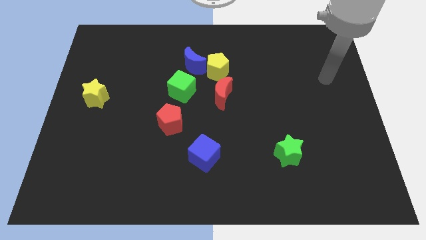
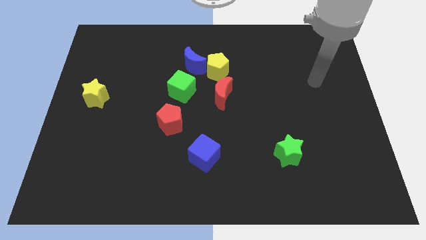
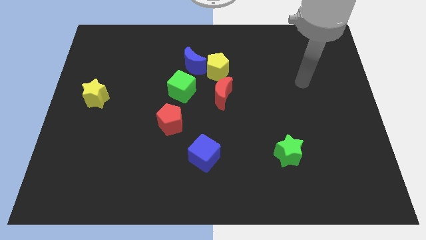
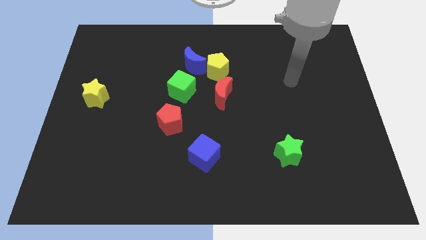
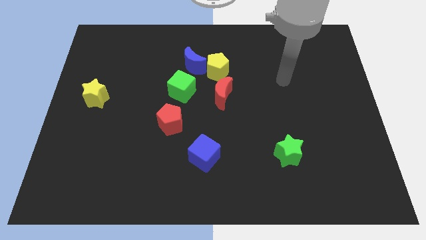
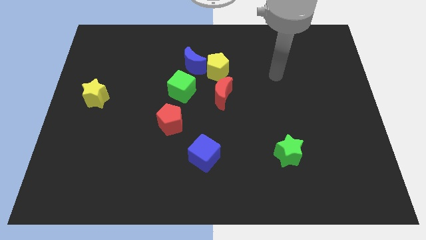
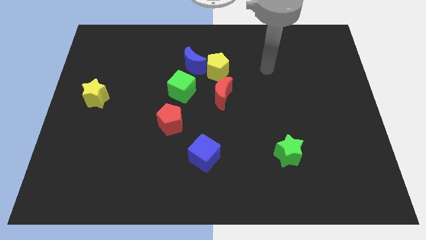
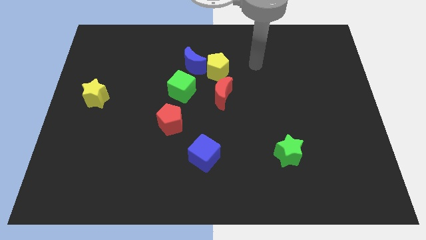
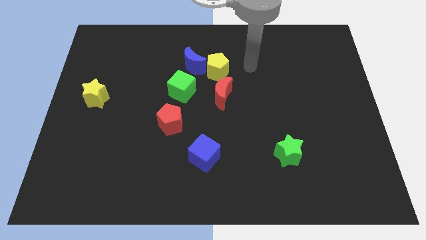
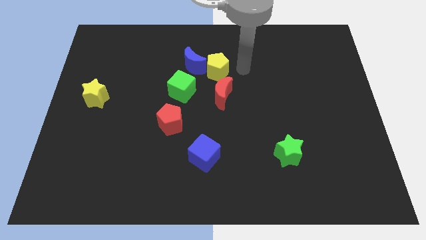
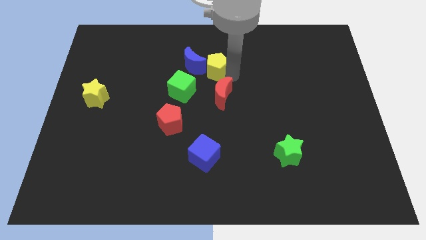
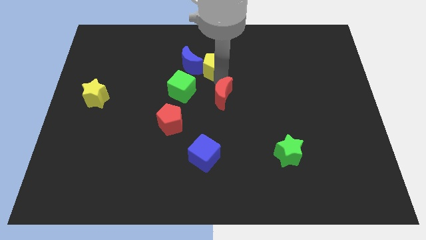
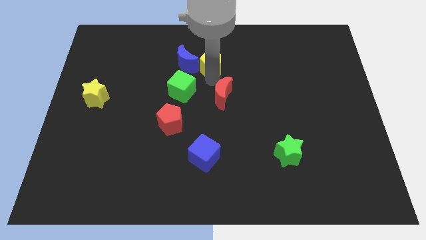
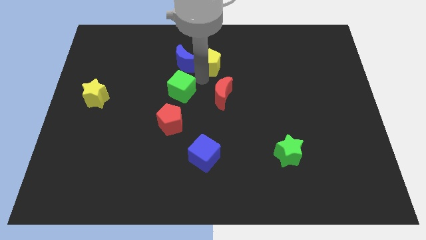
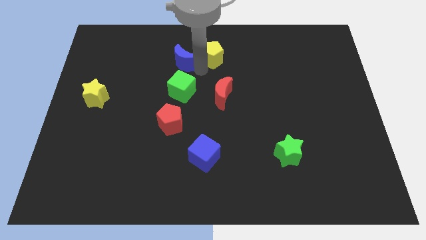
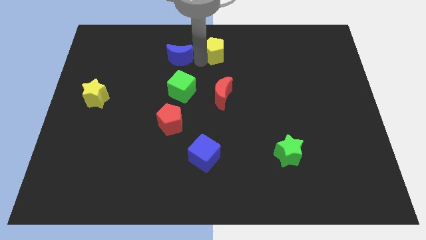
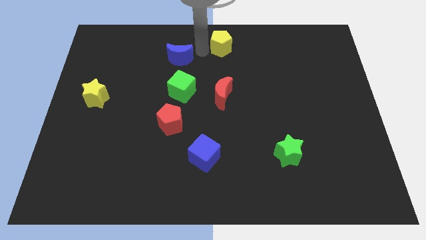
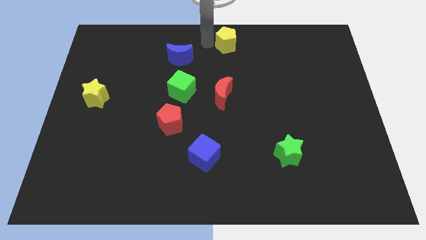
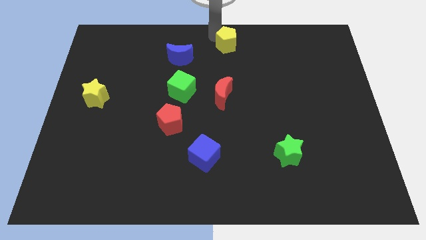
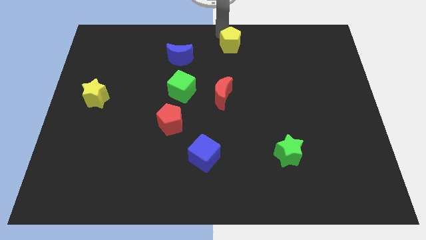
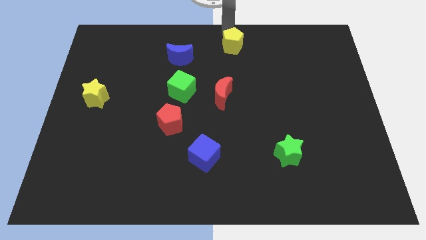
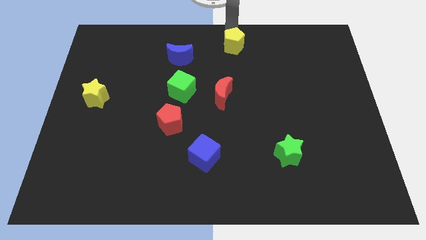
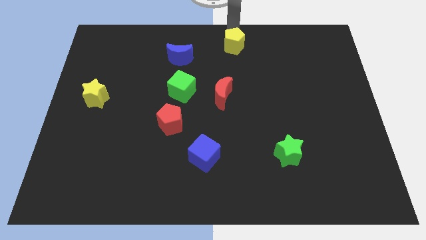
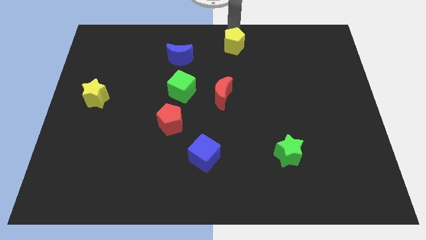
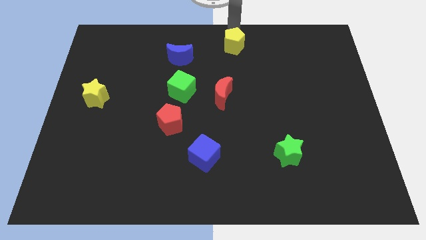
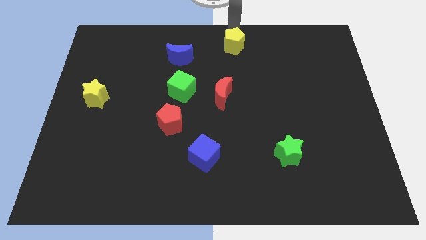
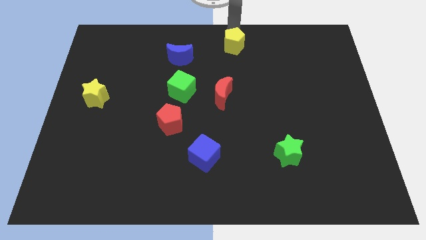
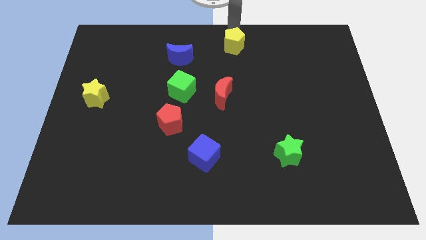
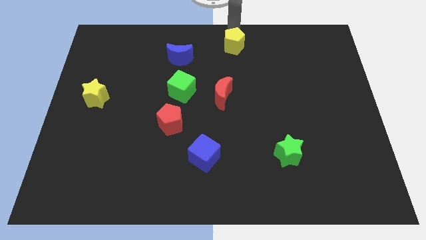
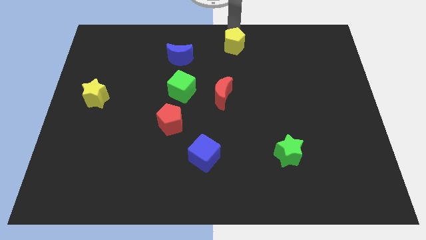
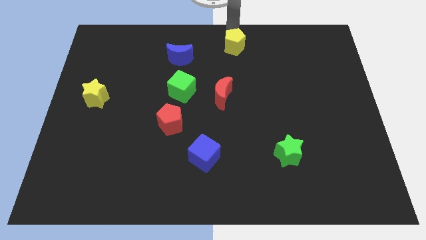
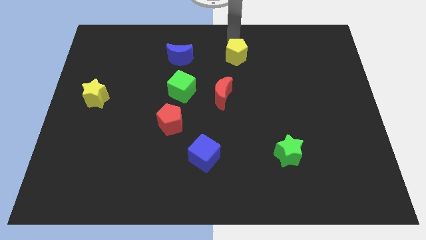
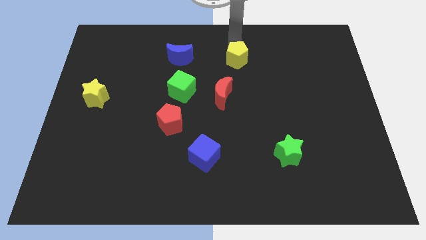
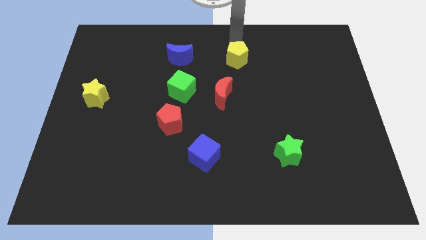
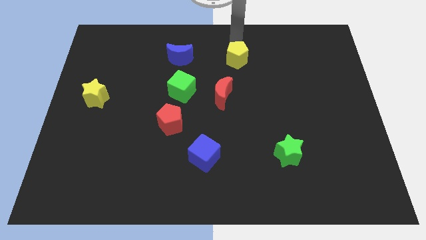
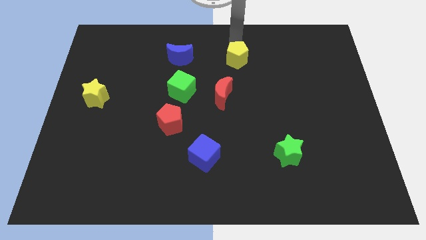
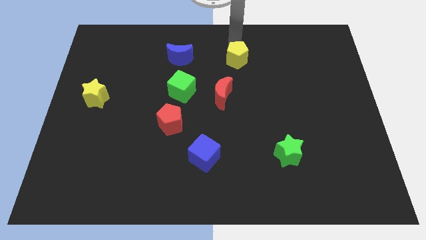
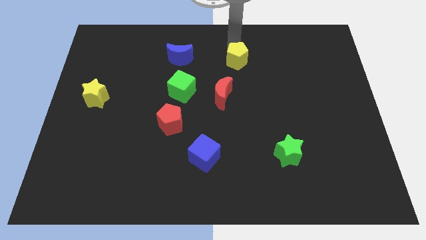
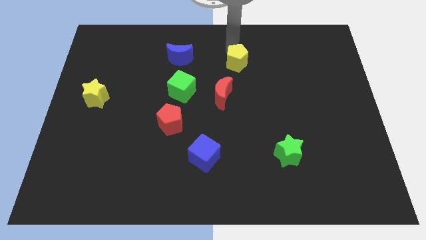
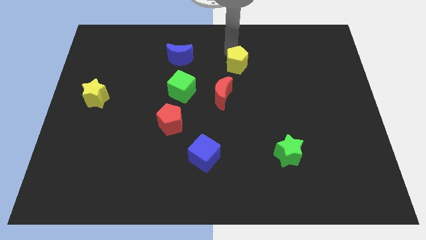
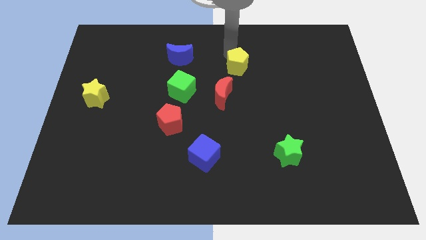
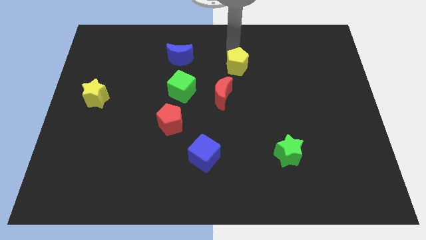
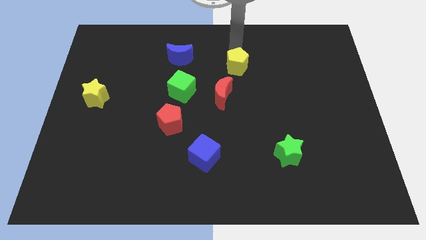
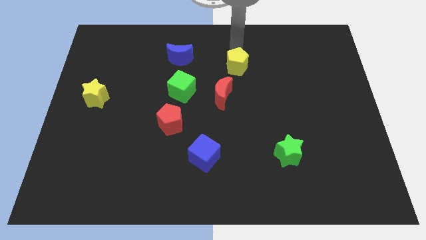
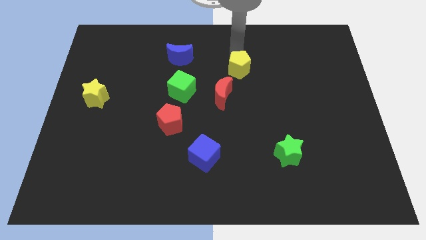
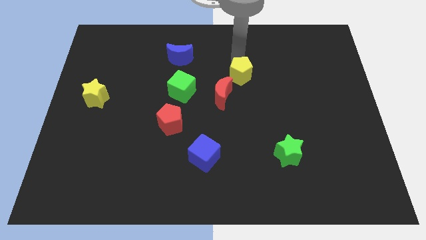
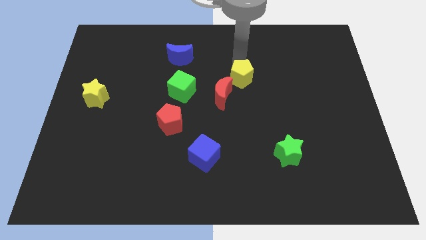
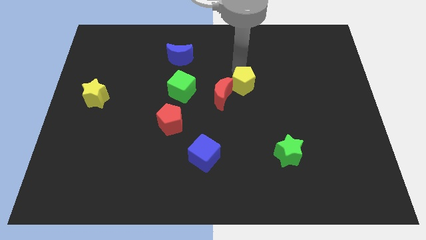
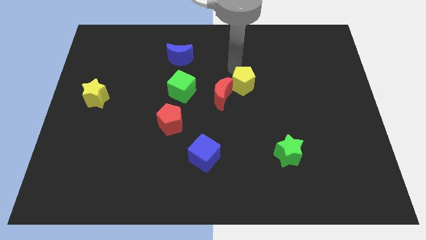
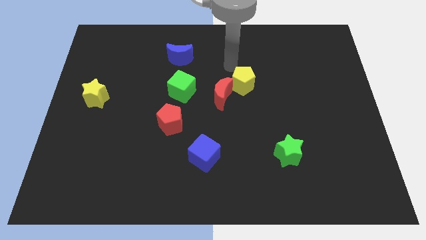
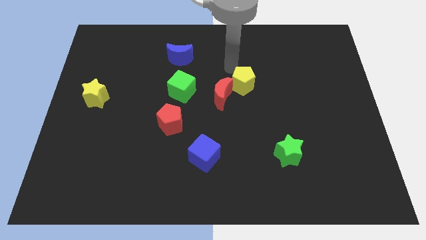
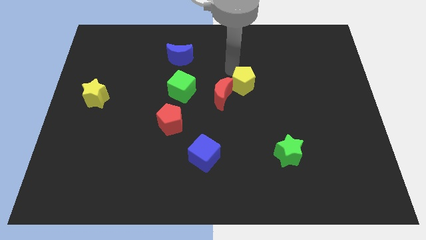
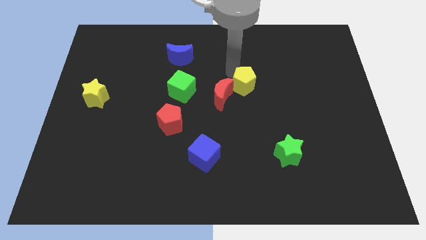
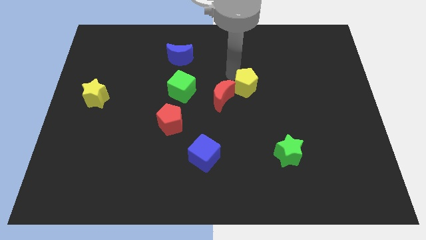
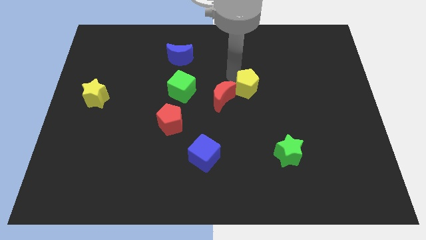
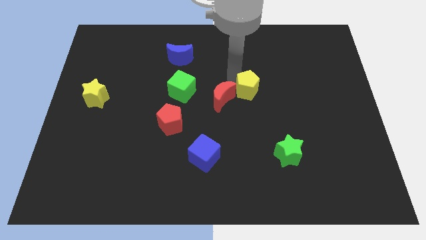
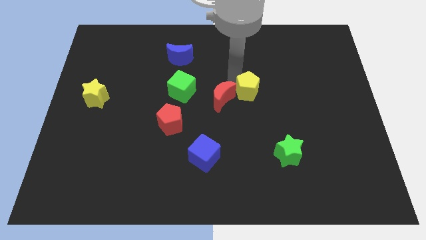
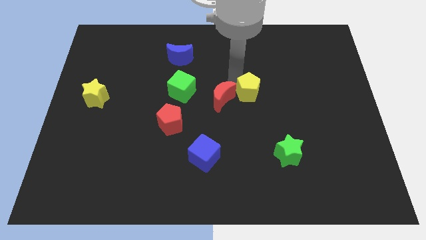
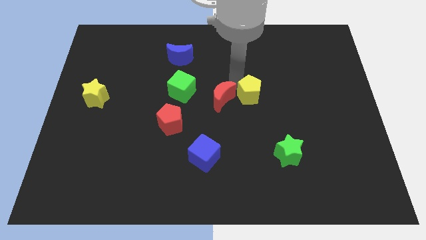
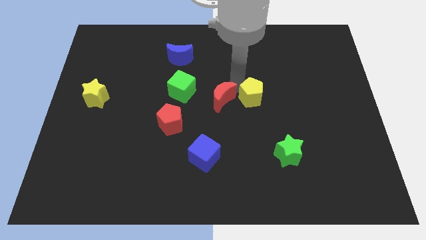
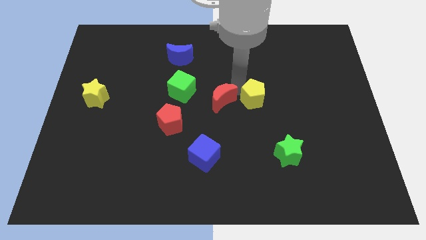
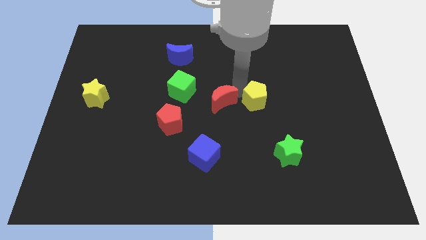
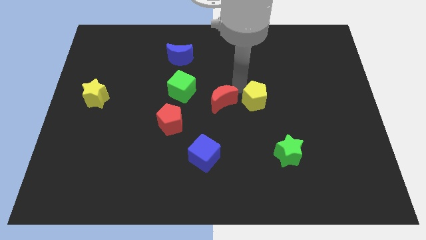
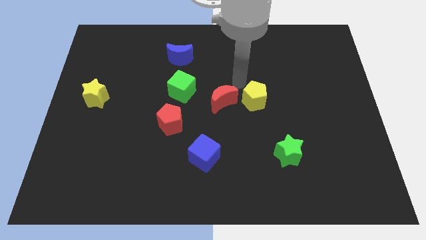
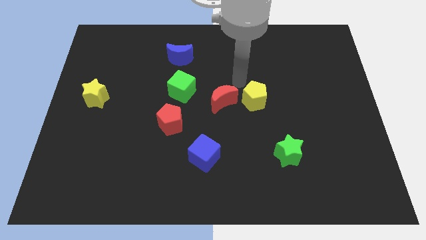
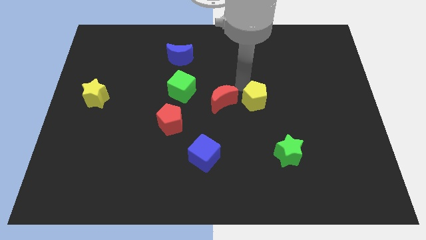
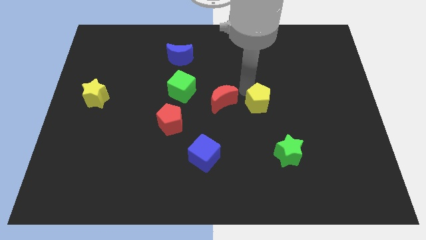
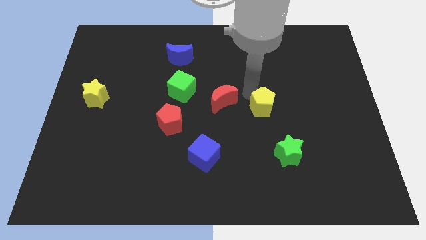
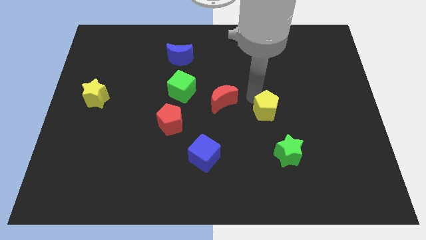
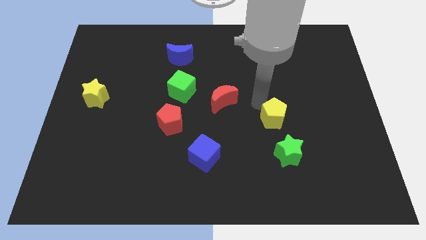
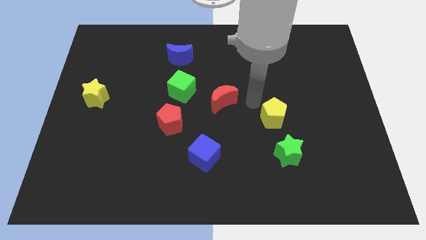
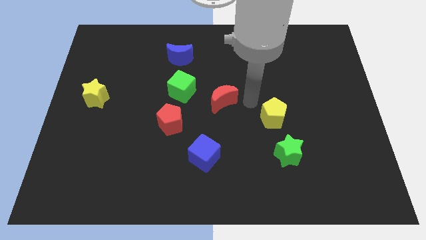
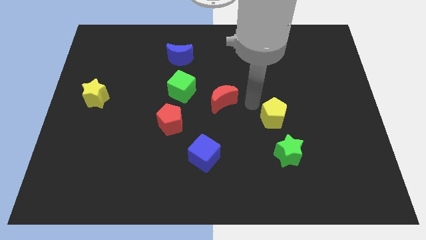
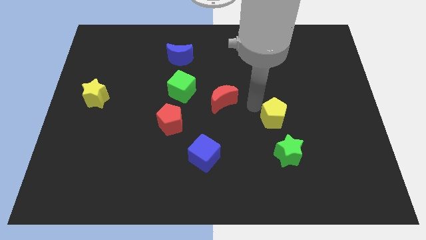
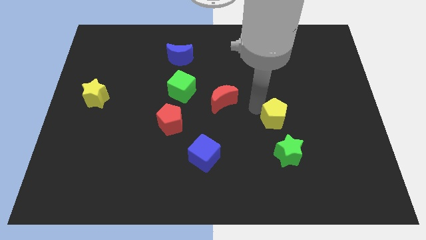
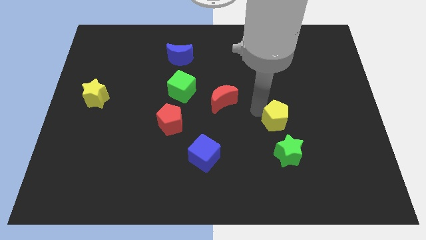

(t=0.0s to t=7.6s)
push the yellow pentagon downwards and to the right diagonally

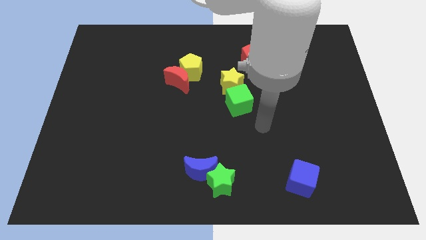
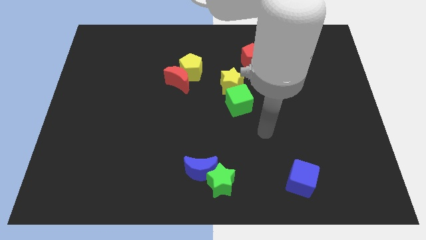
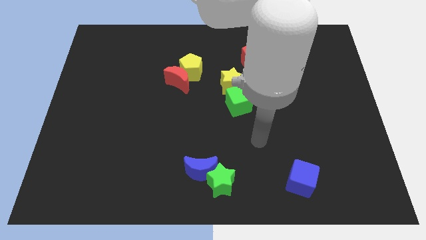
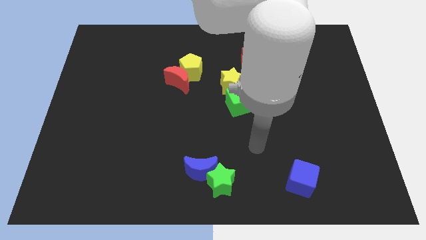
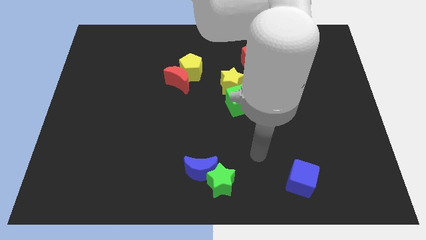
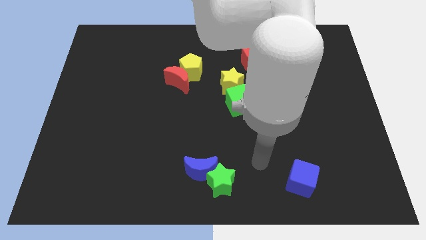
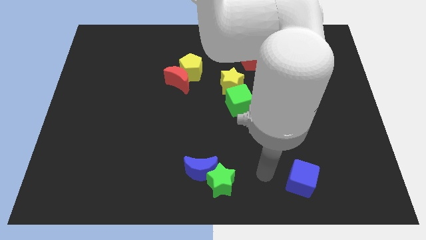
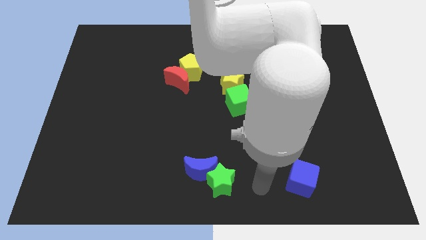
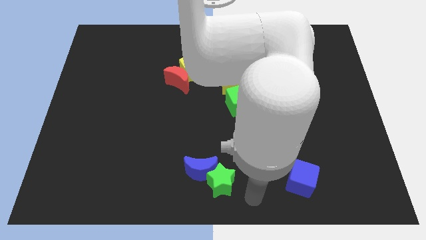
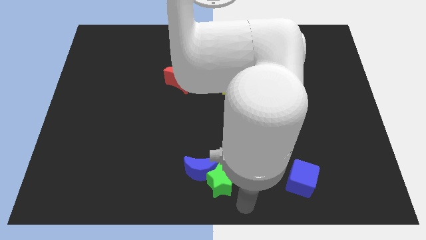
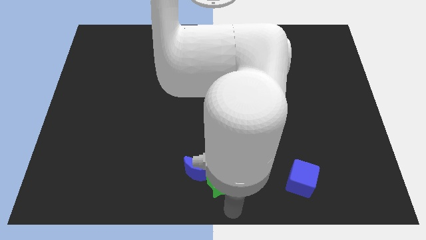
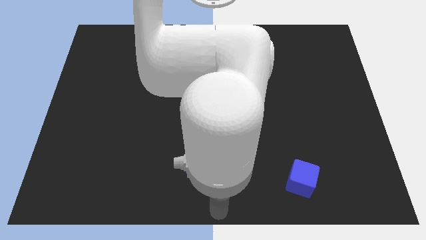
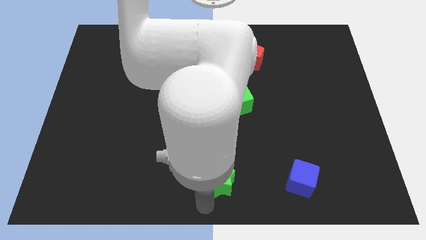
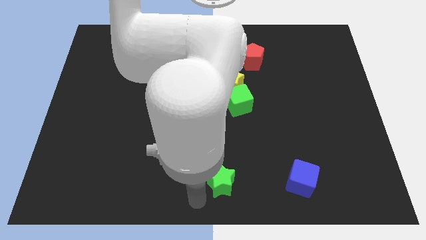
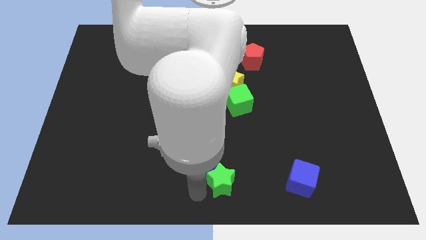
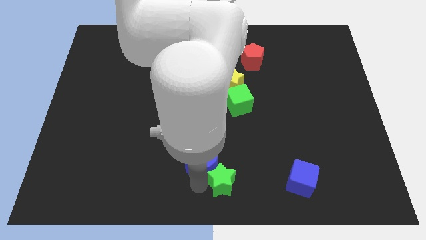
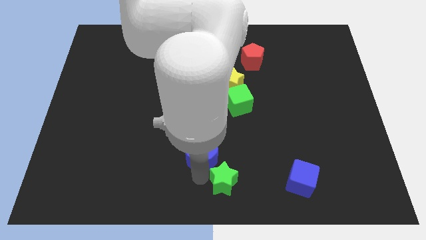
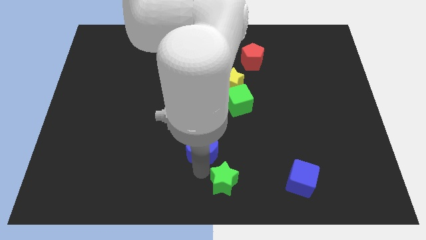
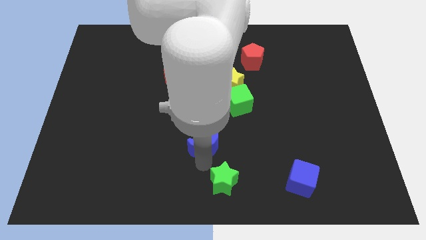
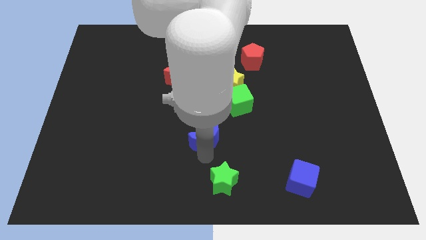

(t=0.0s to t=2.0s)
slightly slide the blue moon upwards
